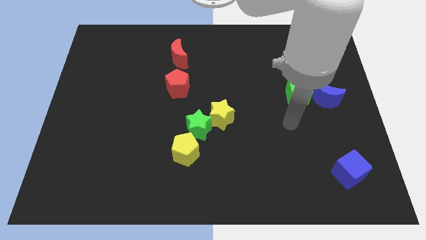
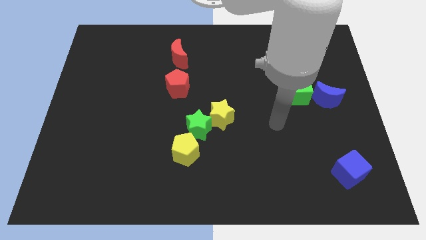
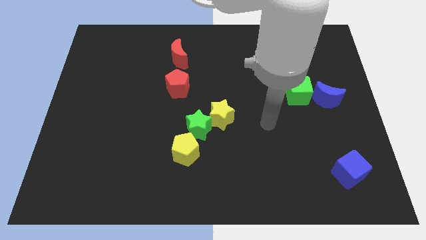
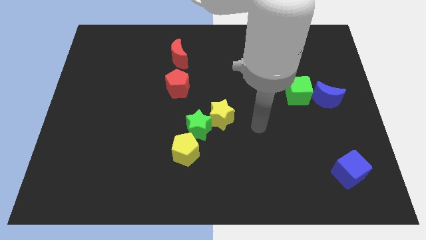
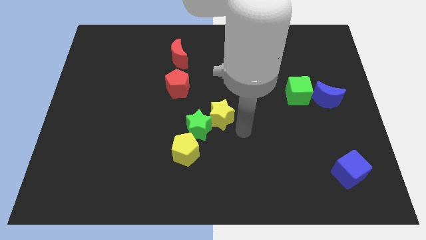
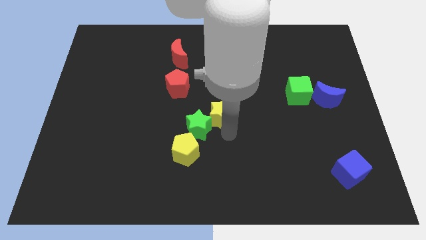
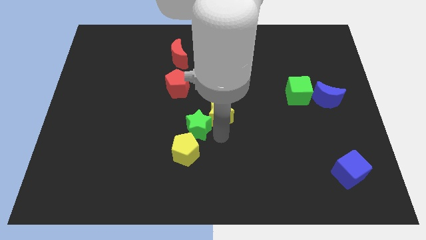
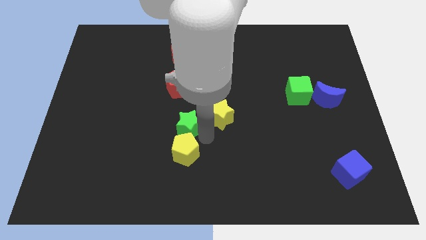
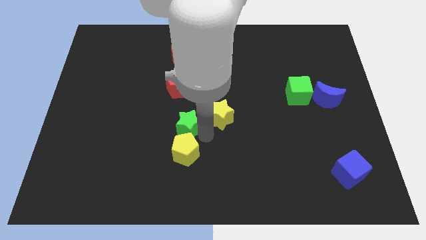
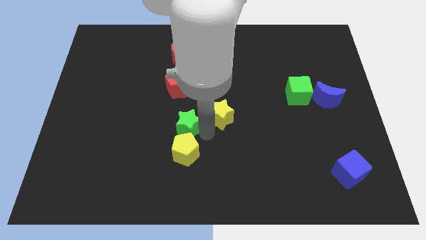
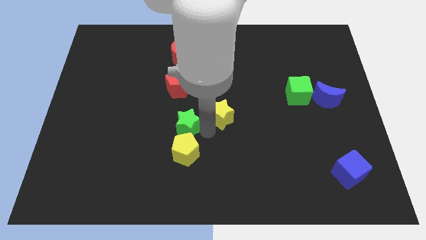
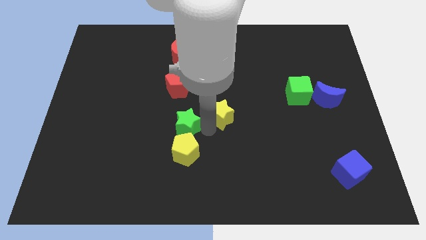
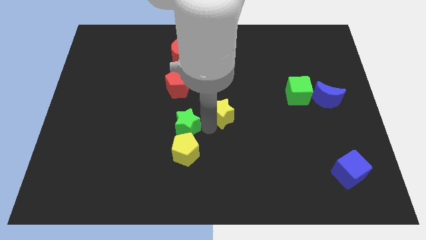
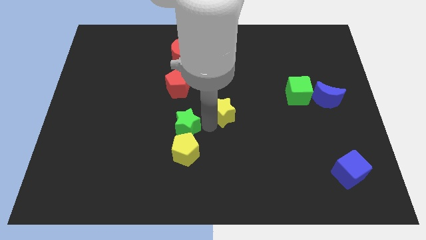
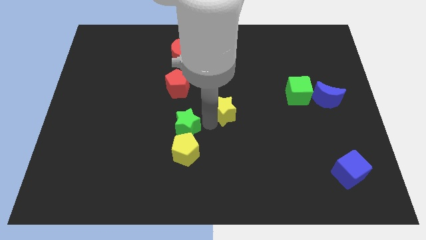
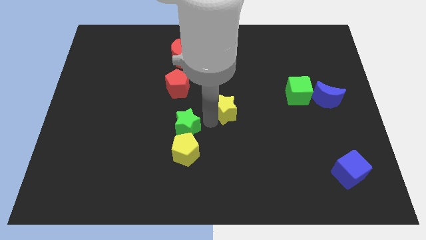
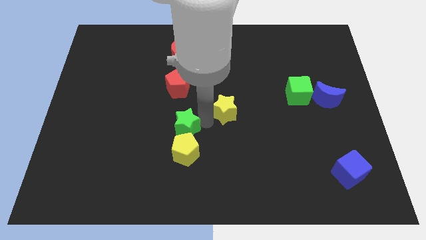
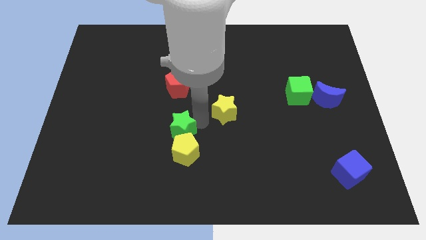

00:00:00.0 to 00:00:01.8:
pull the yellow star apart from the green star

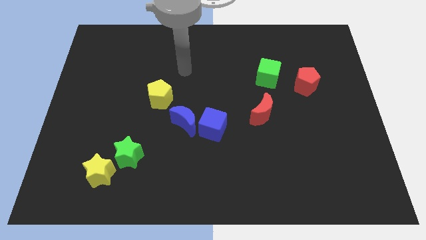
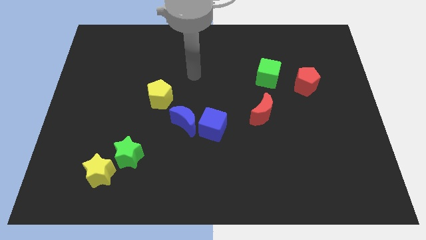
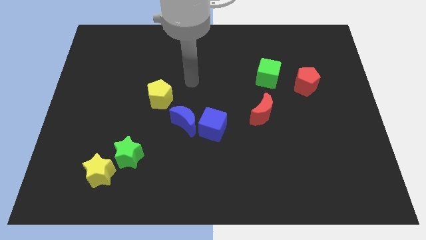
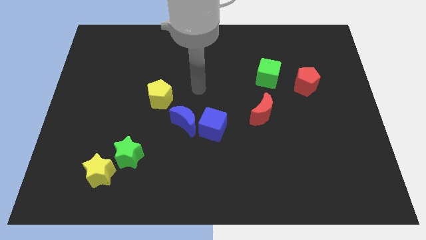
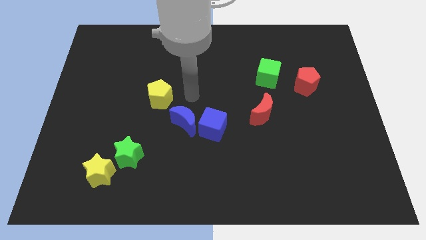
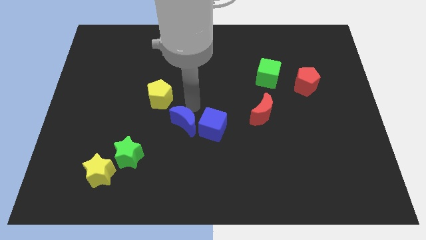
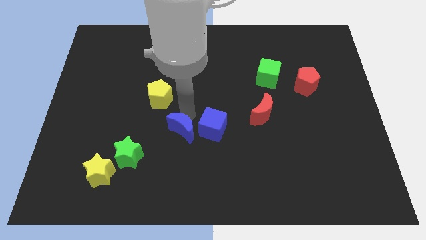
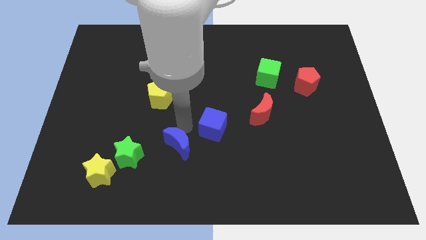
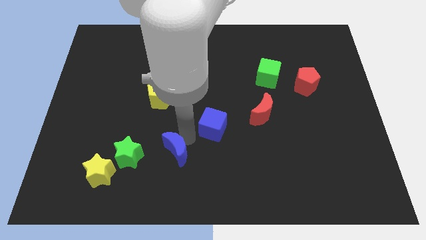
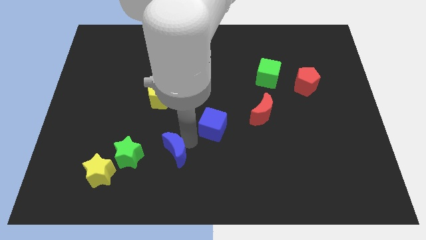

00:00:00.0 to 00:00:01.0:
move the blue cube away from the blue moon

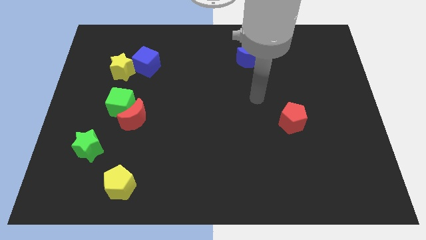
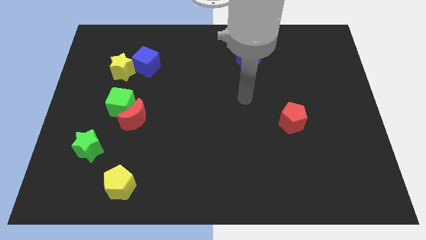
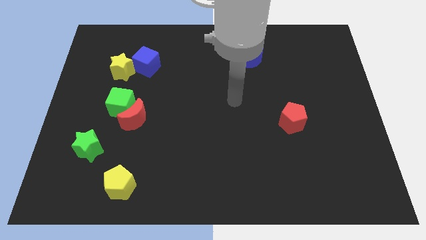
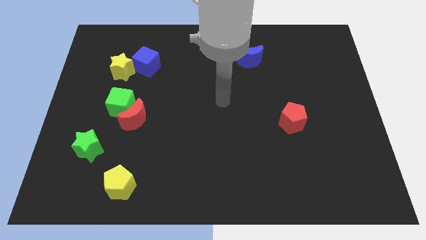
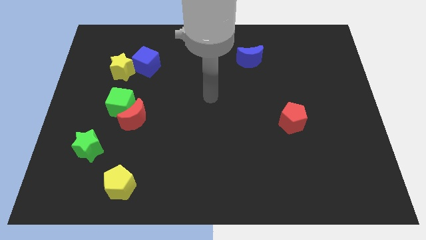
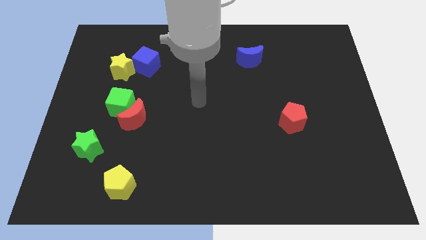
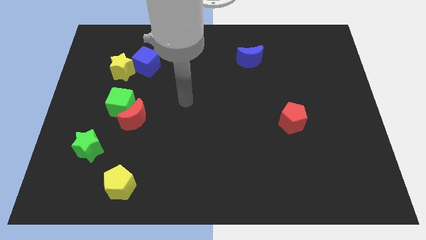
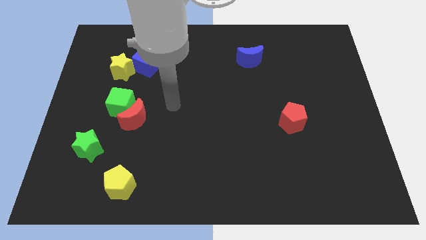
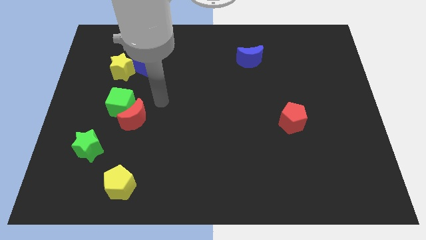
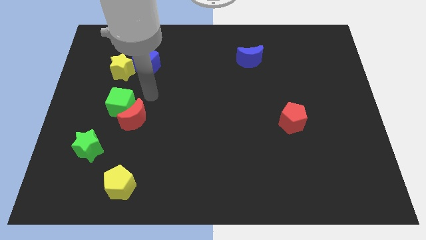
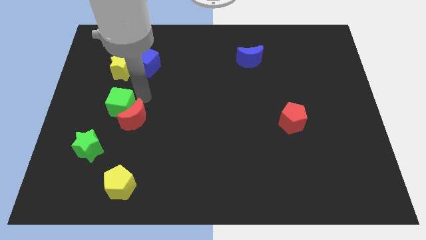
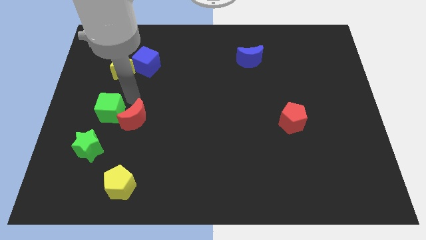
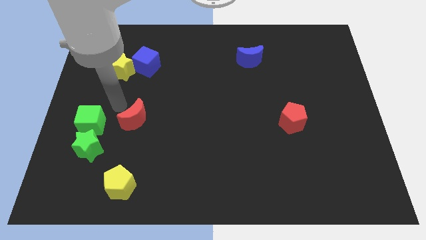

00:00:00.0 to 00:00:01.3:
pull the red moon apart from the green cube

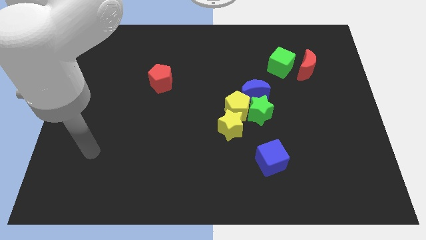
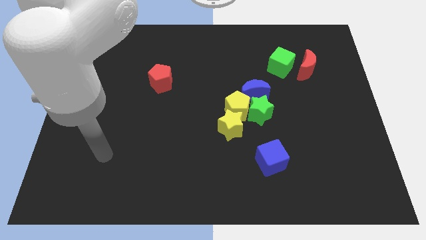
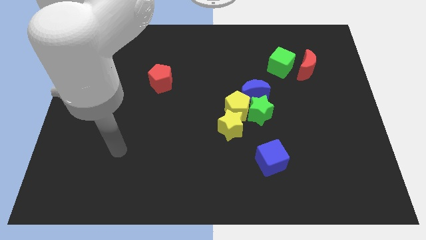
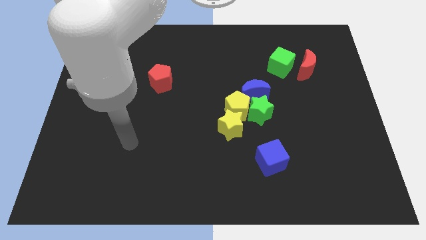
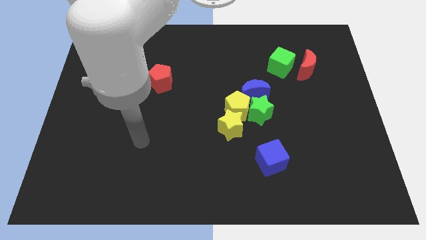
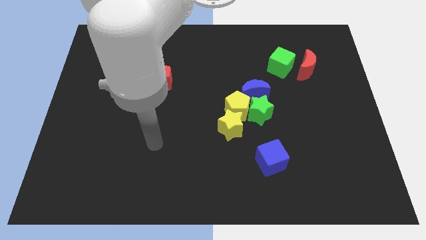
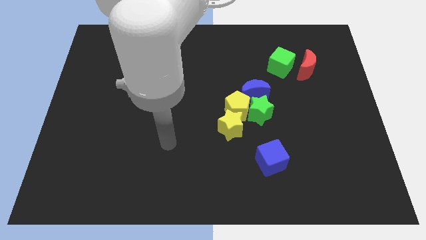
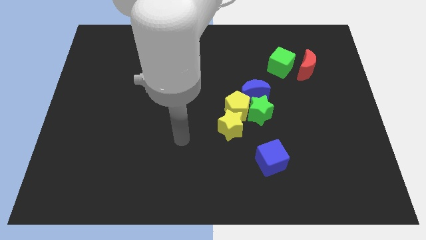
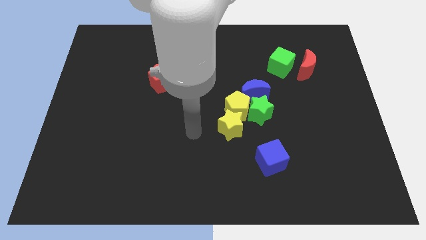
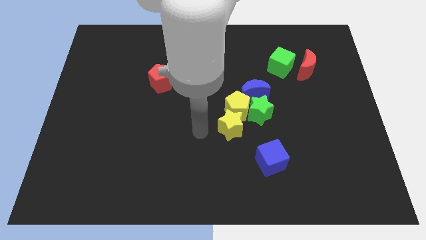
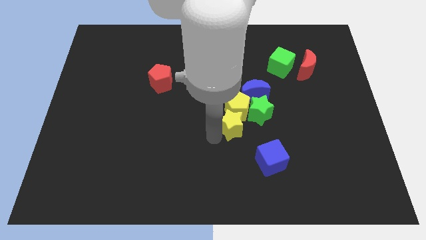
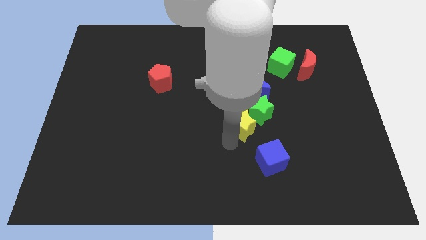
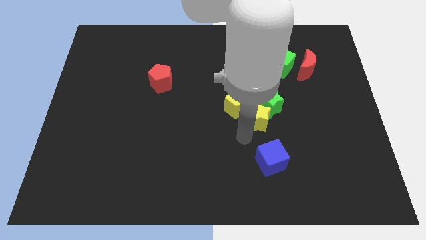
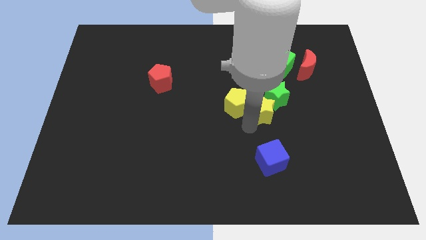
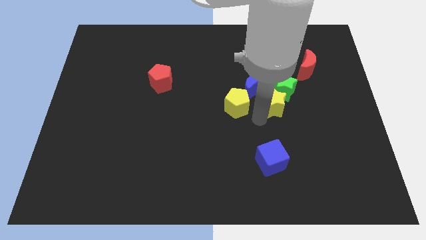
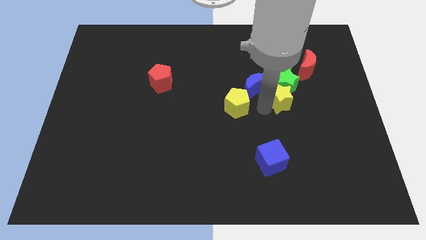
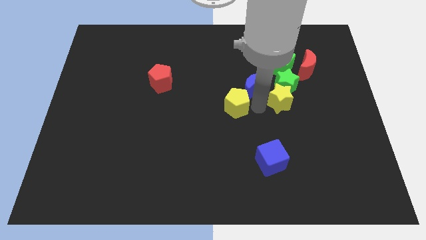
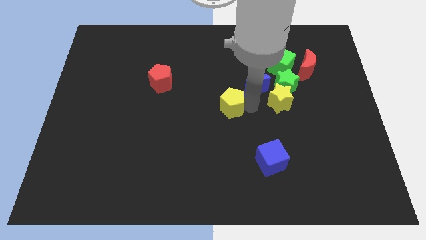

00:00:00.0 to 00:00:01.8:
pull the yellow pentagon apart from the group

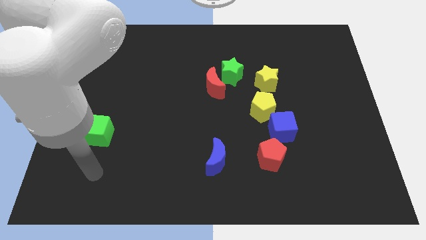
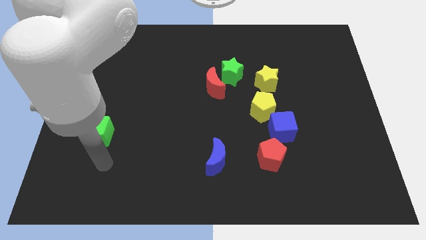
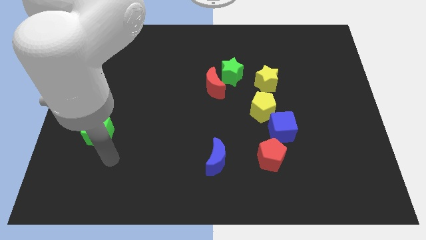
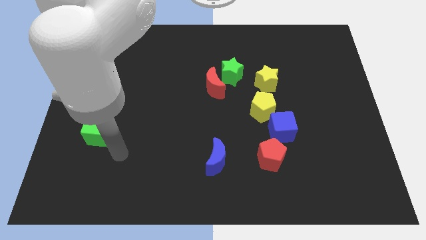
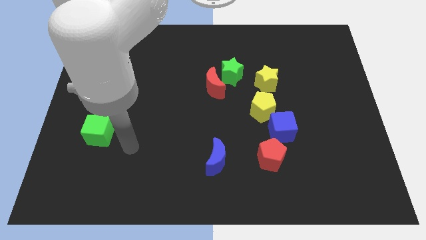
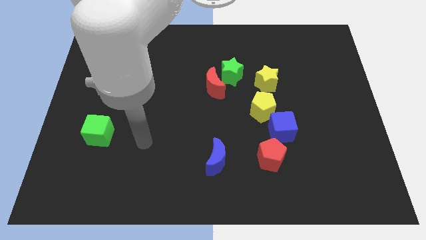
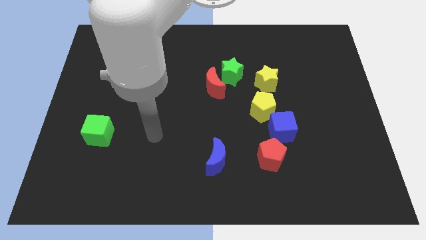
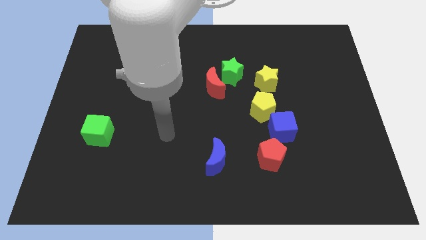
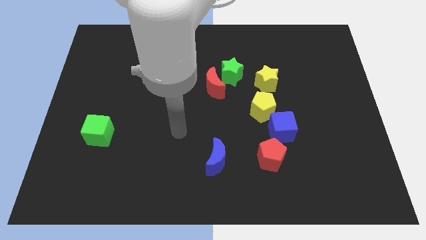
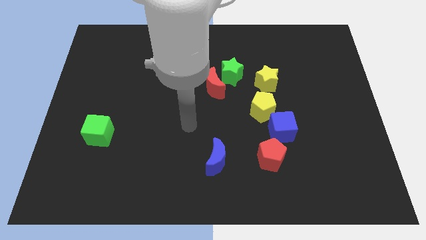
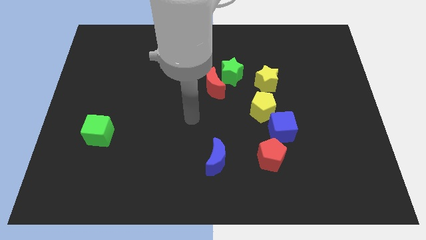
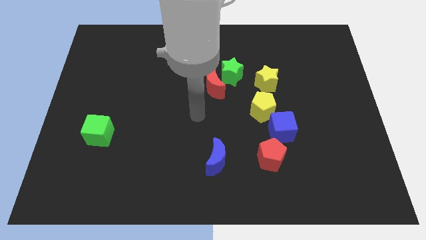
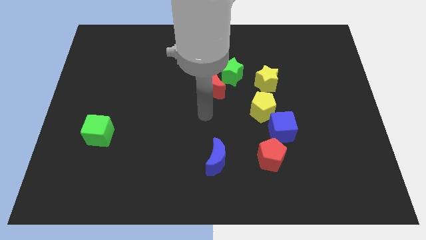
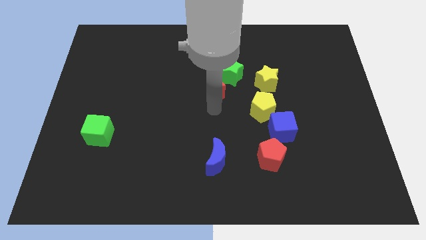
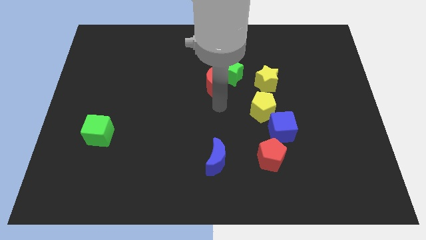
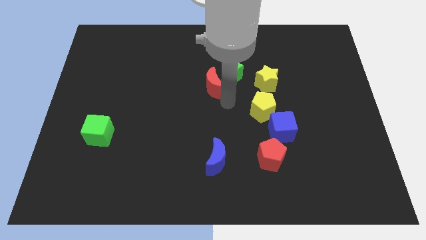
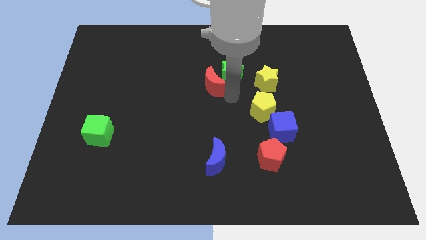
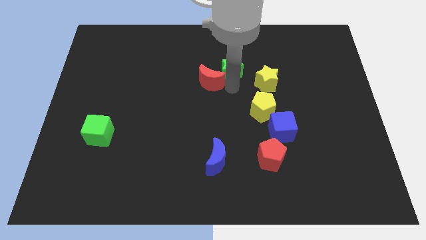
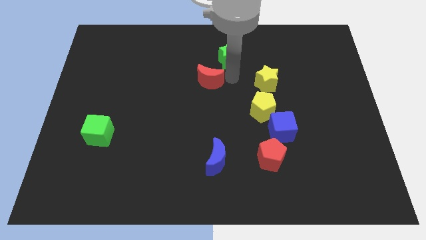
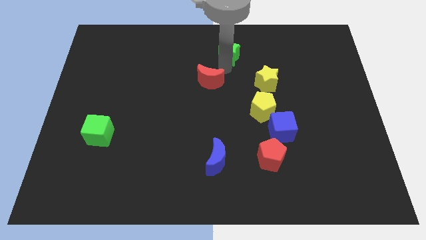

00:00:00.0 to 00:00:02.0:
move the red moon away from the green star

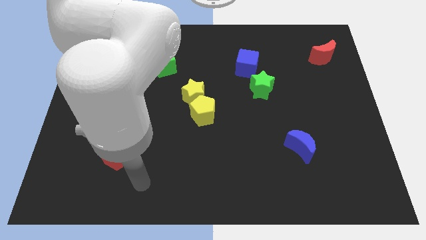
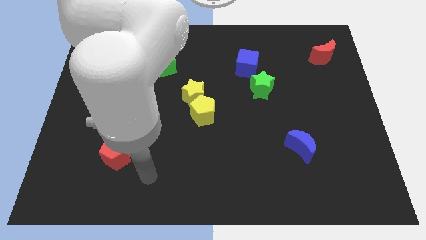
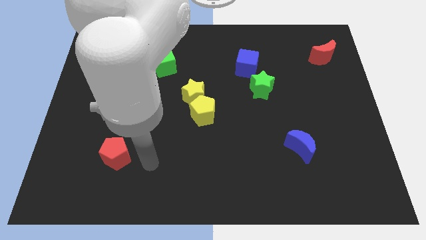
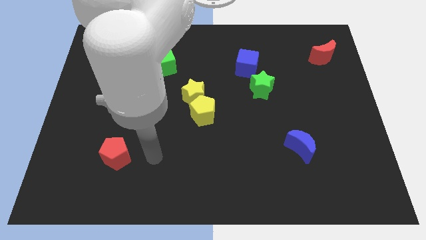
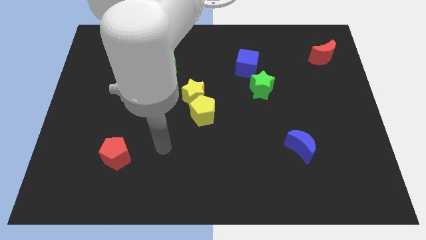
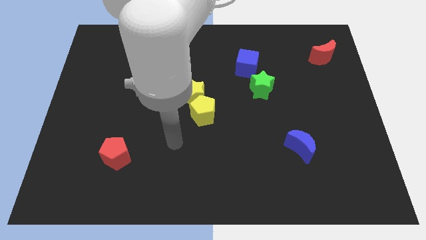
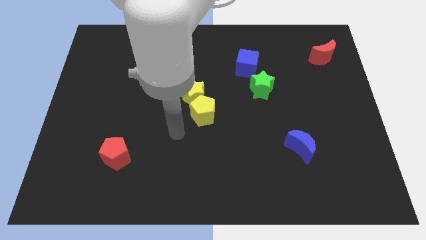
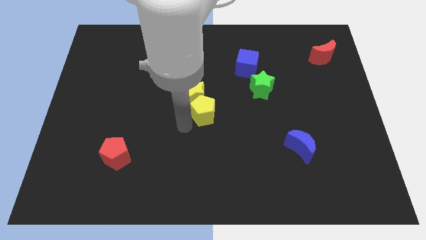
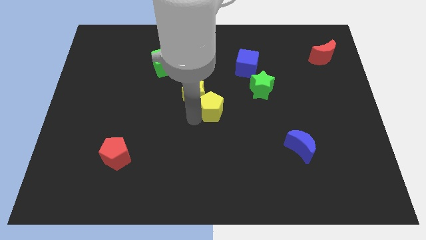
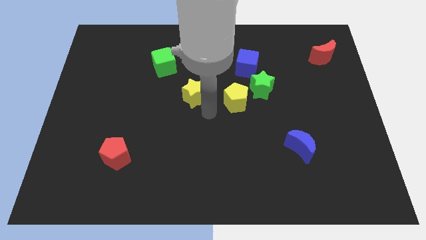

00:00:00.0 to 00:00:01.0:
move the yellow star away from the yellow pentagon

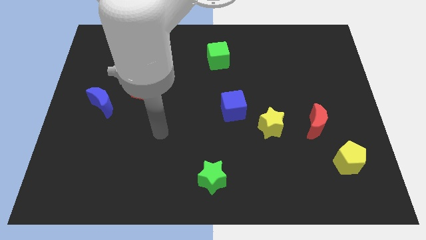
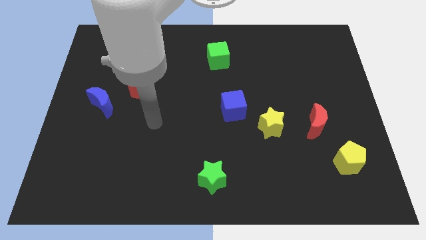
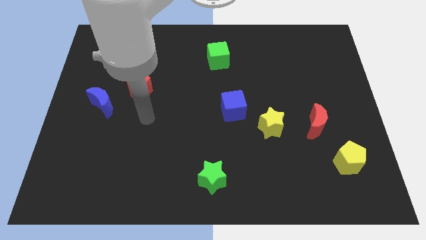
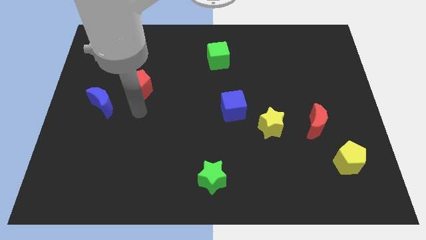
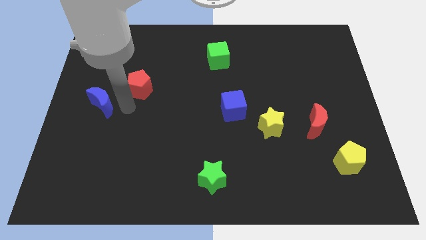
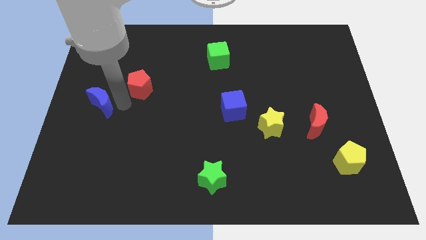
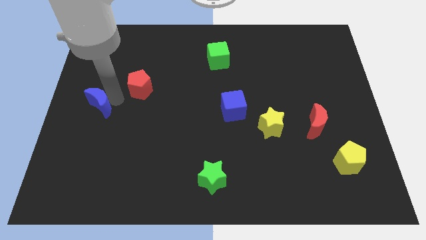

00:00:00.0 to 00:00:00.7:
pull the red pentagon apart from the blue moon
